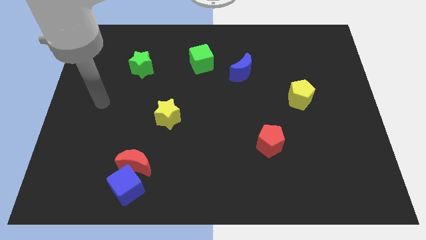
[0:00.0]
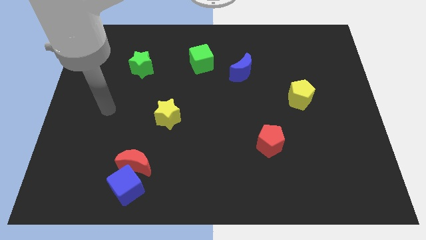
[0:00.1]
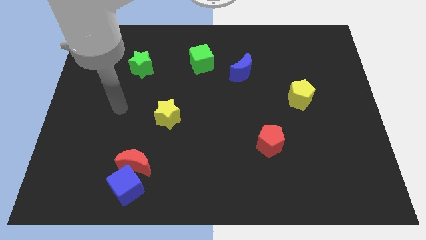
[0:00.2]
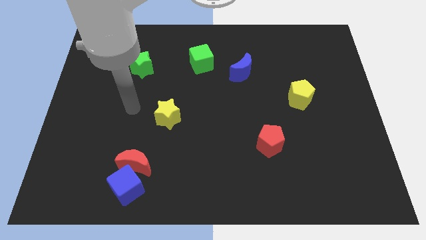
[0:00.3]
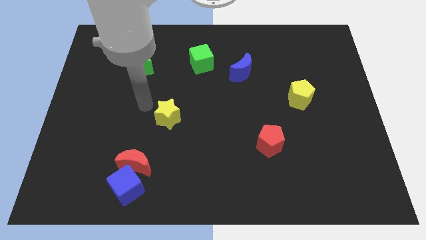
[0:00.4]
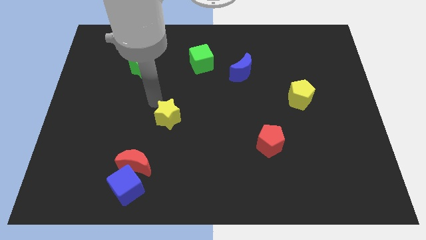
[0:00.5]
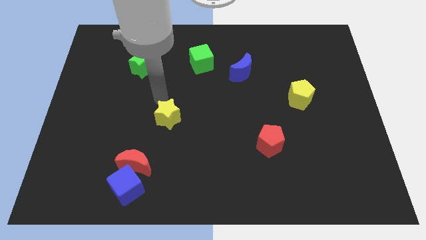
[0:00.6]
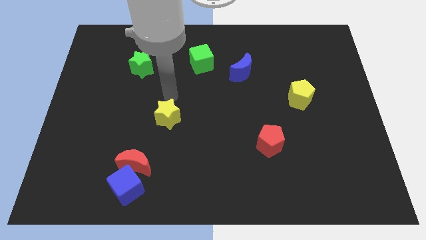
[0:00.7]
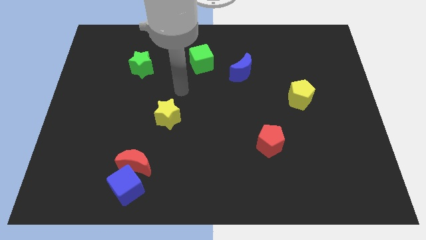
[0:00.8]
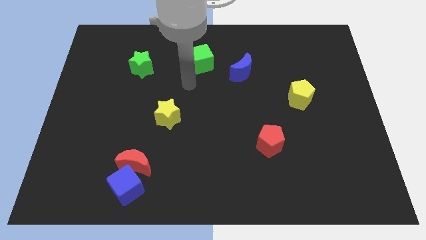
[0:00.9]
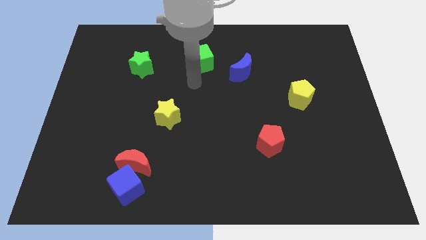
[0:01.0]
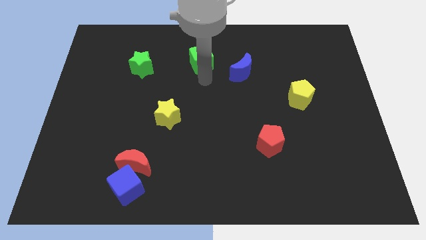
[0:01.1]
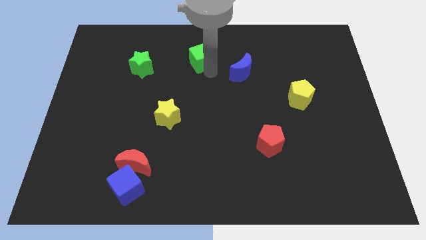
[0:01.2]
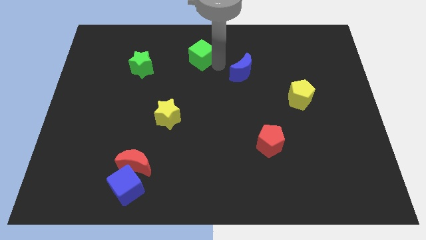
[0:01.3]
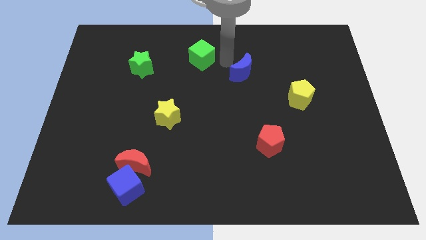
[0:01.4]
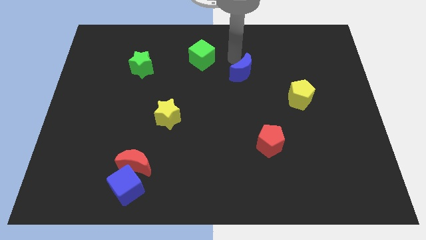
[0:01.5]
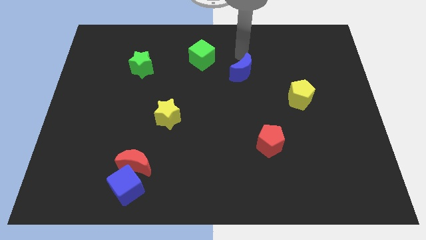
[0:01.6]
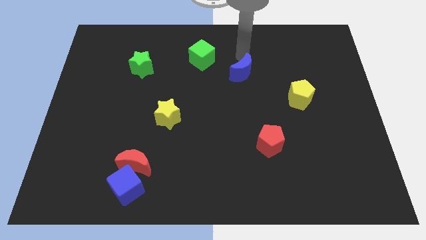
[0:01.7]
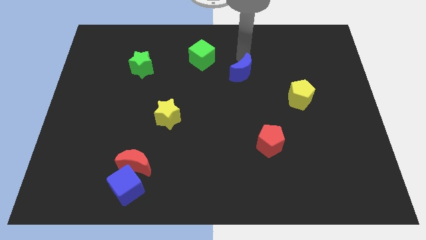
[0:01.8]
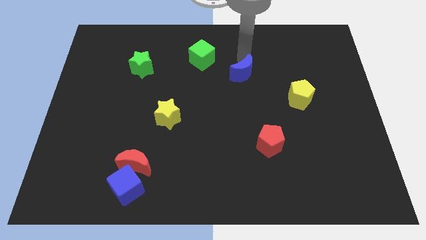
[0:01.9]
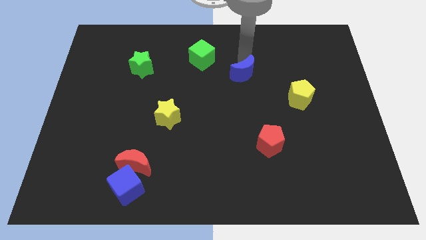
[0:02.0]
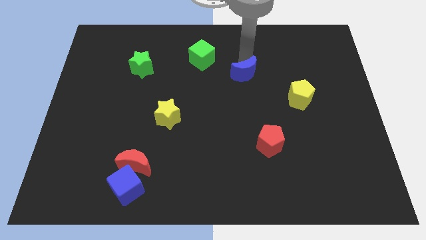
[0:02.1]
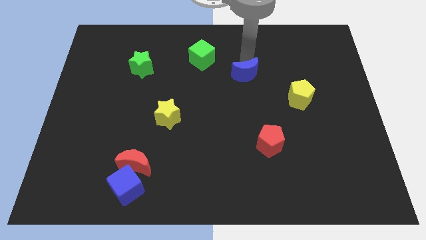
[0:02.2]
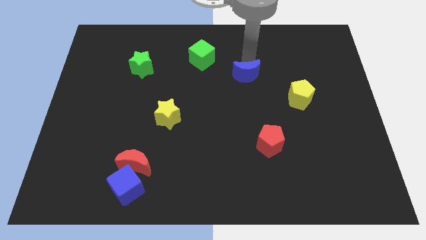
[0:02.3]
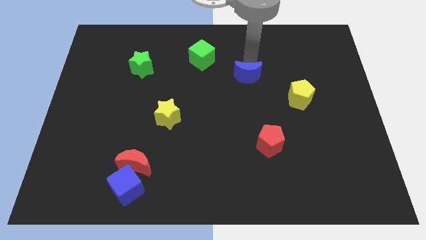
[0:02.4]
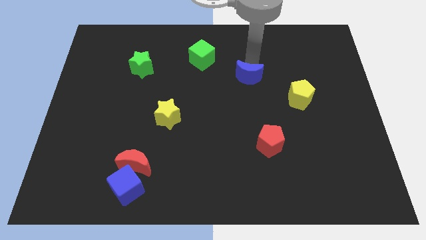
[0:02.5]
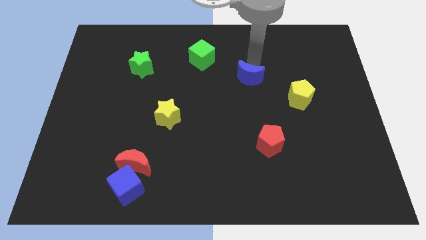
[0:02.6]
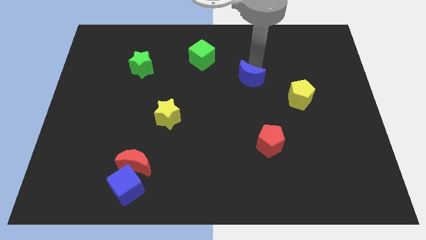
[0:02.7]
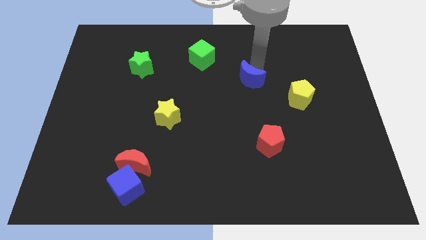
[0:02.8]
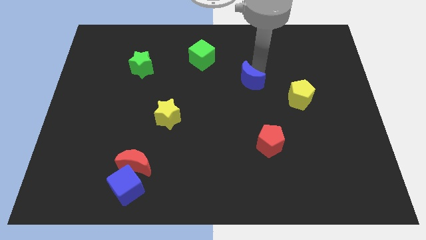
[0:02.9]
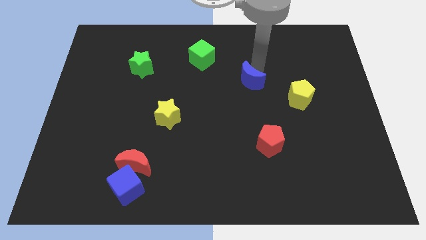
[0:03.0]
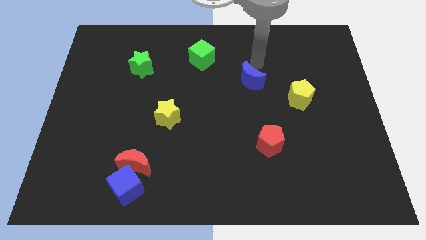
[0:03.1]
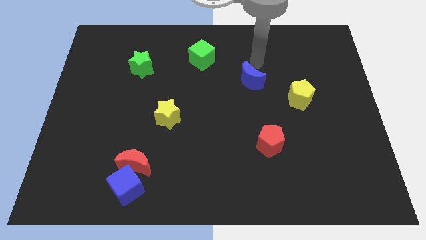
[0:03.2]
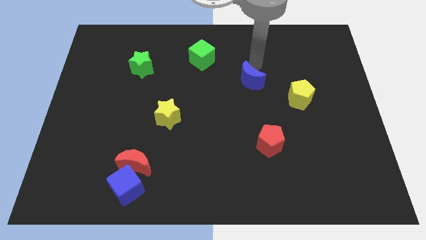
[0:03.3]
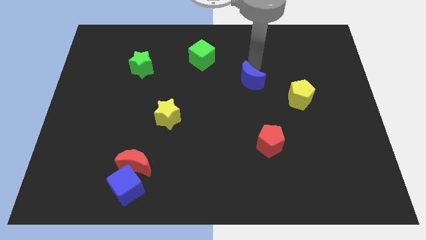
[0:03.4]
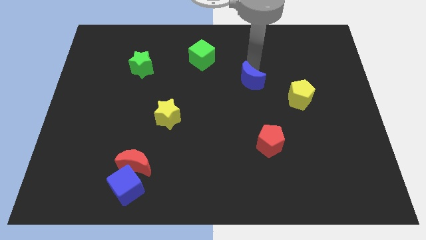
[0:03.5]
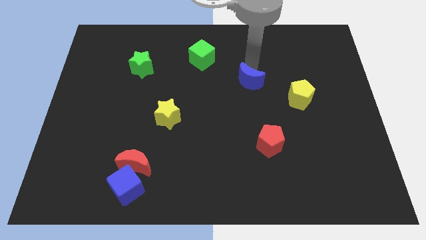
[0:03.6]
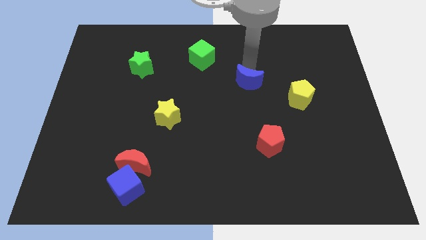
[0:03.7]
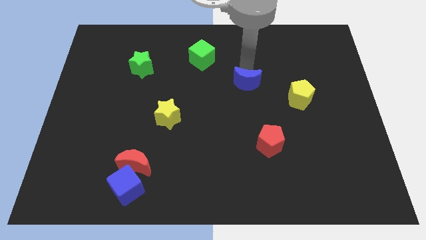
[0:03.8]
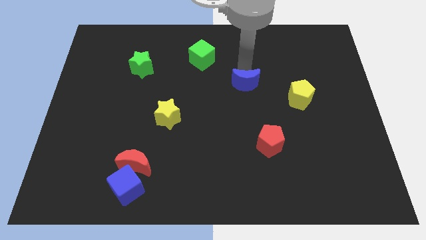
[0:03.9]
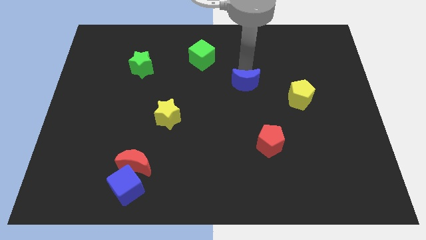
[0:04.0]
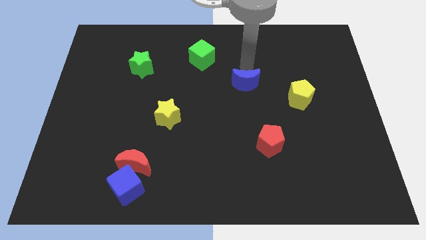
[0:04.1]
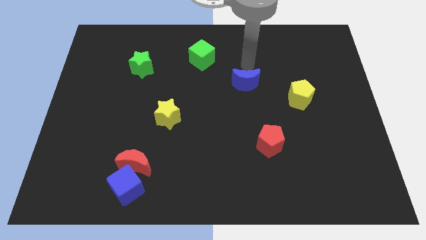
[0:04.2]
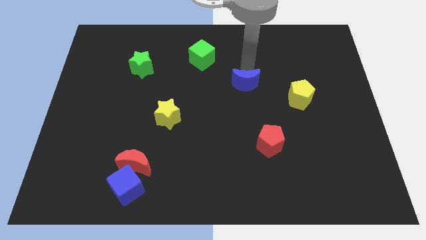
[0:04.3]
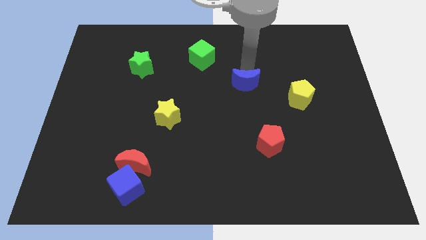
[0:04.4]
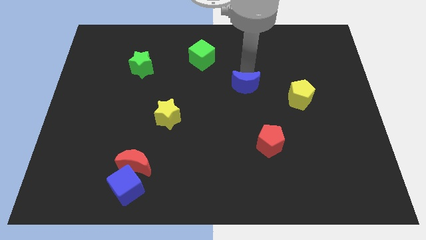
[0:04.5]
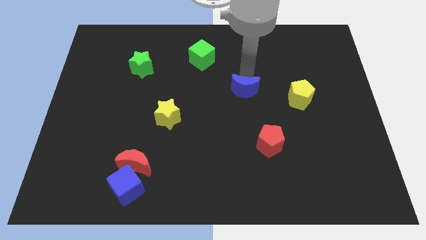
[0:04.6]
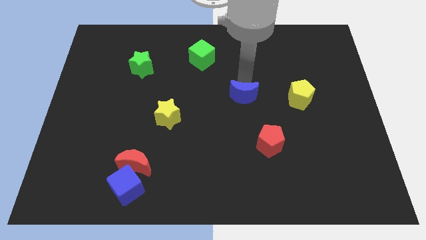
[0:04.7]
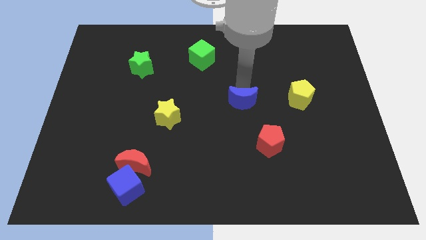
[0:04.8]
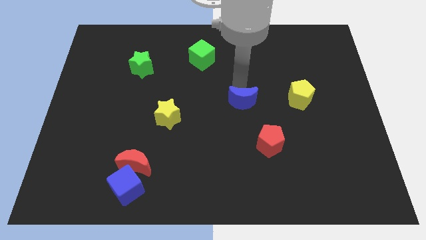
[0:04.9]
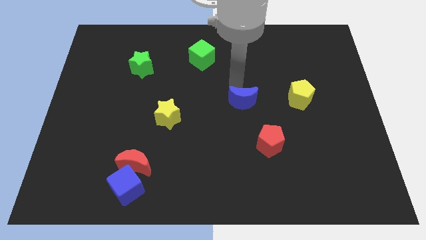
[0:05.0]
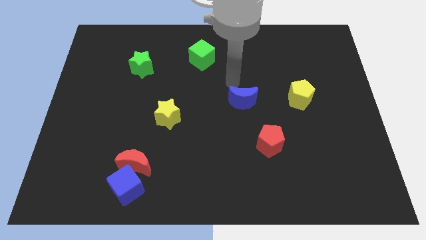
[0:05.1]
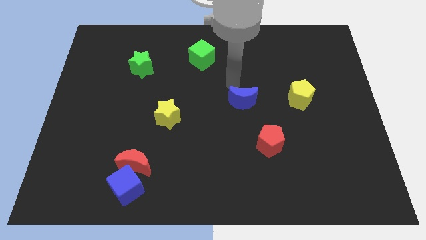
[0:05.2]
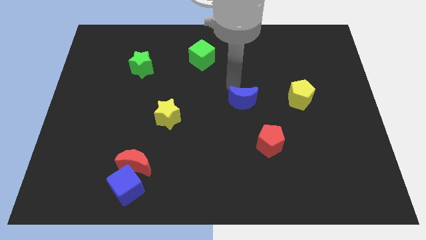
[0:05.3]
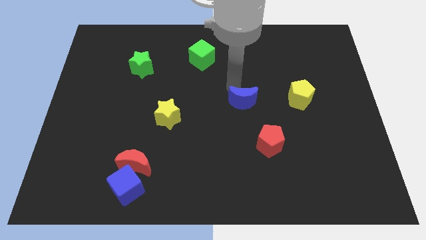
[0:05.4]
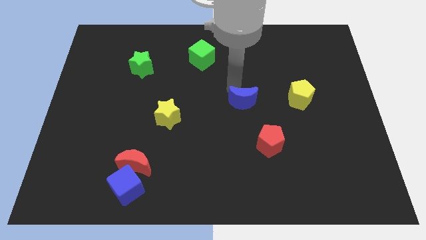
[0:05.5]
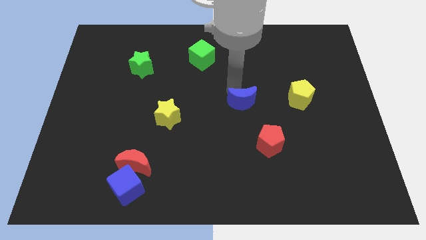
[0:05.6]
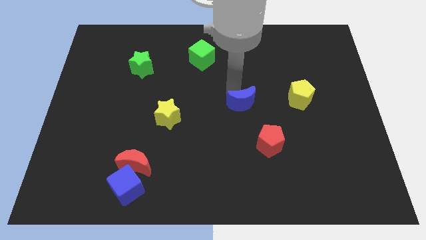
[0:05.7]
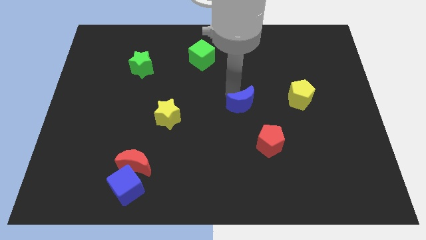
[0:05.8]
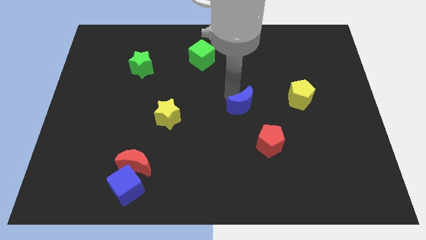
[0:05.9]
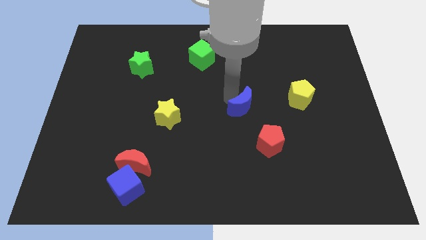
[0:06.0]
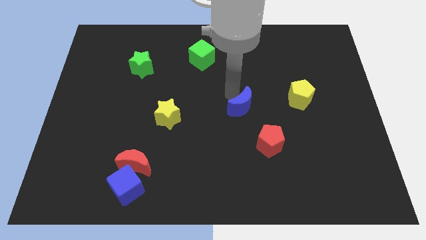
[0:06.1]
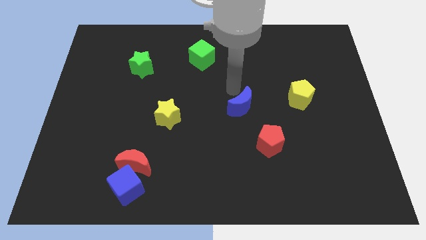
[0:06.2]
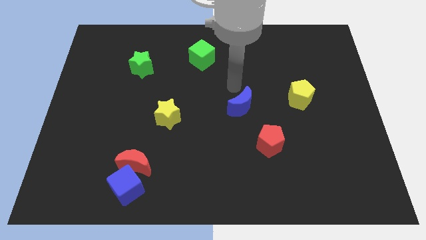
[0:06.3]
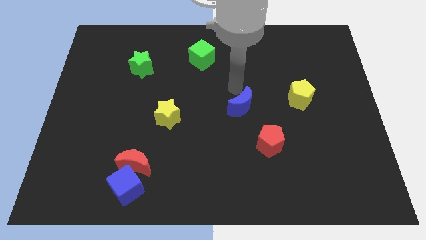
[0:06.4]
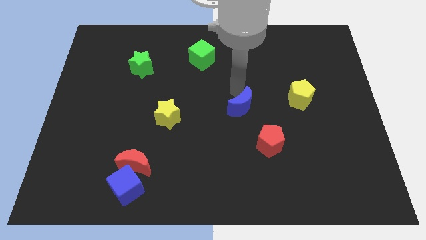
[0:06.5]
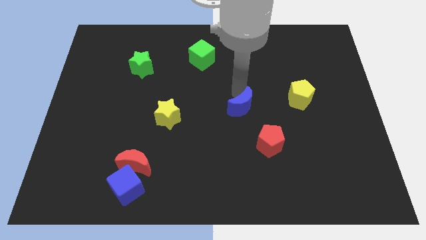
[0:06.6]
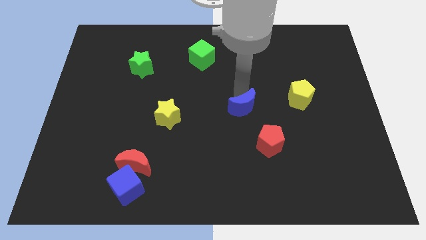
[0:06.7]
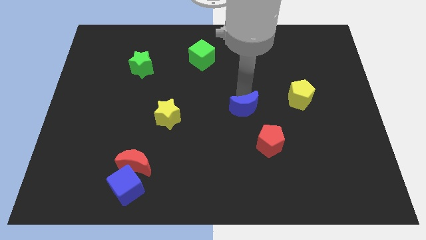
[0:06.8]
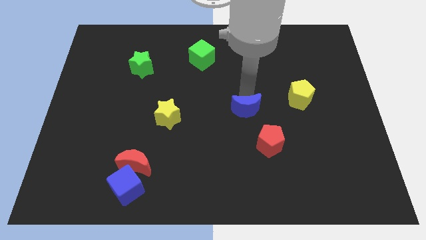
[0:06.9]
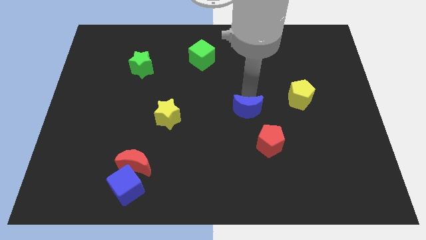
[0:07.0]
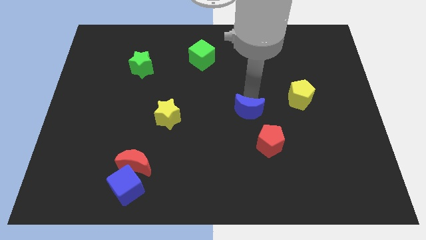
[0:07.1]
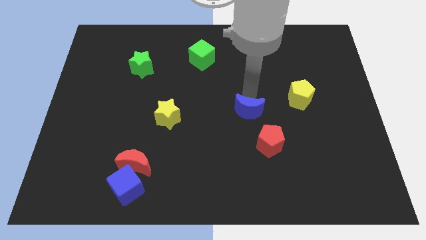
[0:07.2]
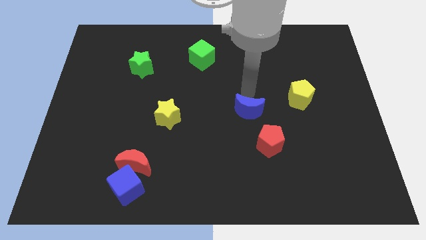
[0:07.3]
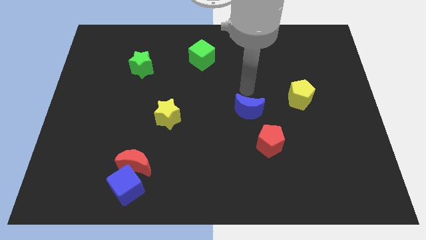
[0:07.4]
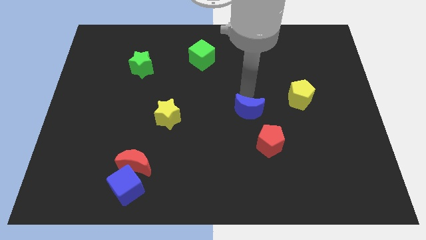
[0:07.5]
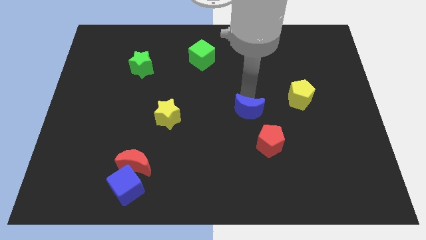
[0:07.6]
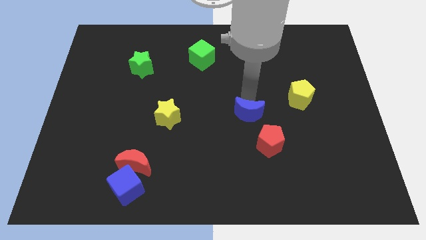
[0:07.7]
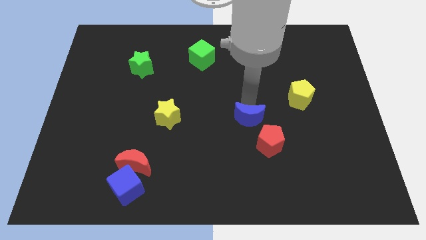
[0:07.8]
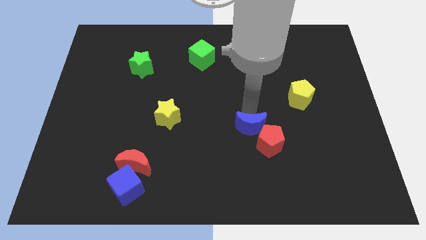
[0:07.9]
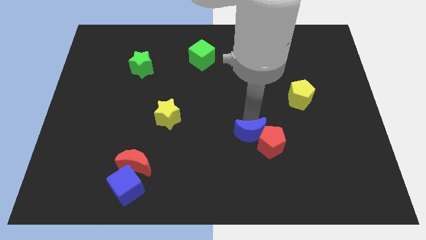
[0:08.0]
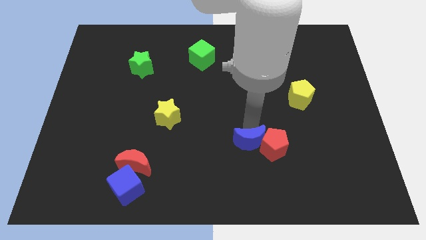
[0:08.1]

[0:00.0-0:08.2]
move the blue moon to the bottom left side of the red pentagon
